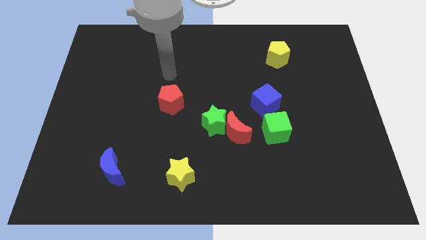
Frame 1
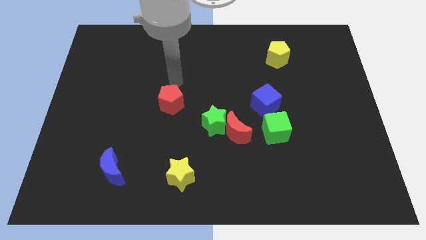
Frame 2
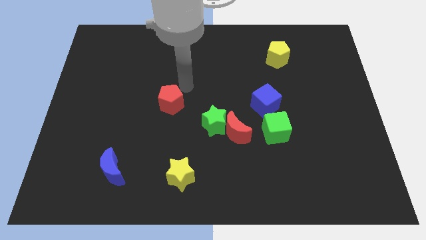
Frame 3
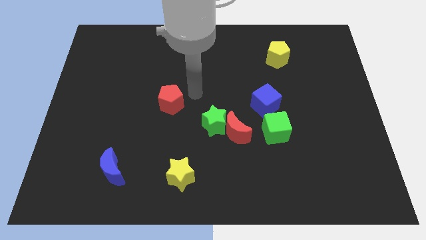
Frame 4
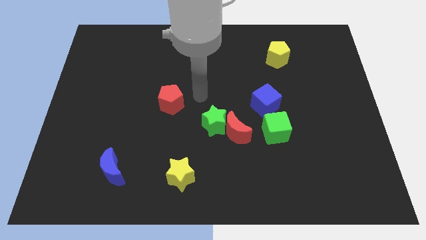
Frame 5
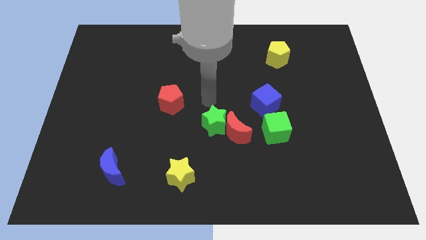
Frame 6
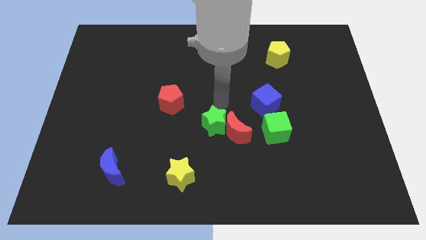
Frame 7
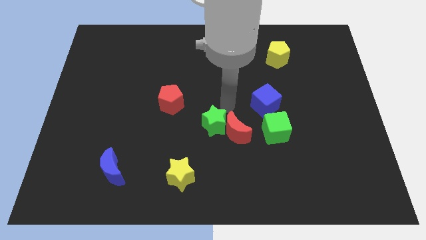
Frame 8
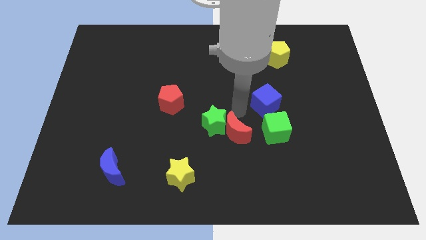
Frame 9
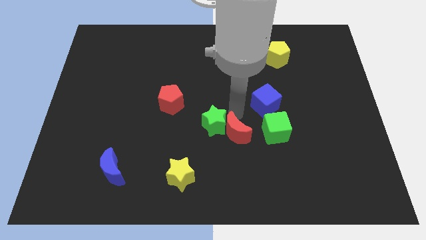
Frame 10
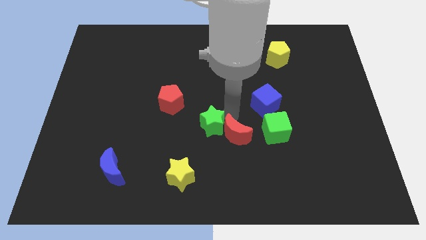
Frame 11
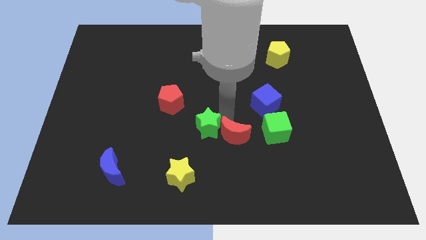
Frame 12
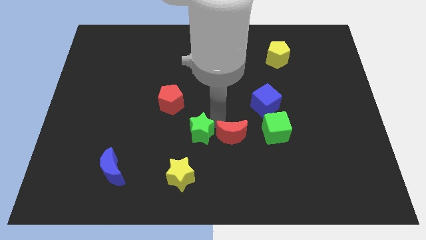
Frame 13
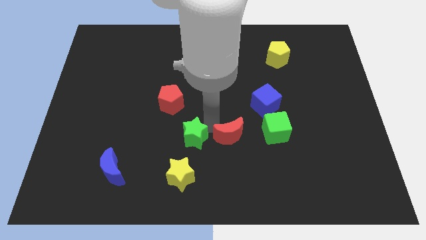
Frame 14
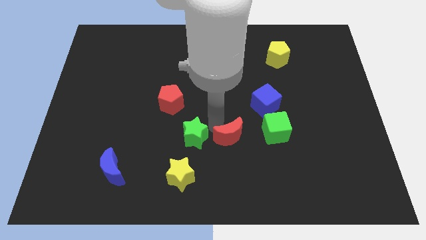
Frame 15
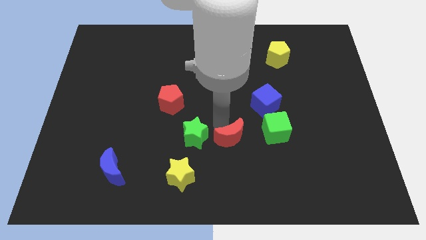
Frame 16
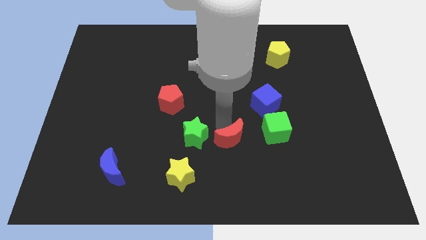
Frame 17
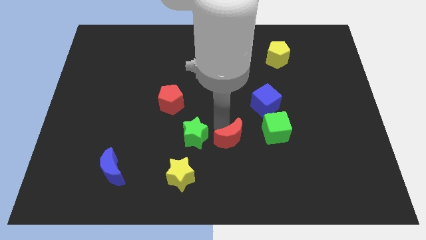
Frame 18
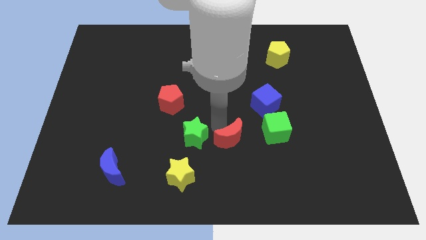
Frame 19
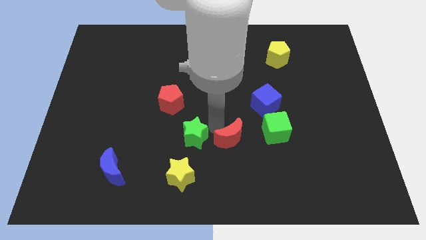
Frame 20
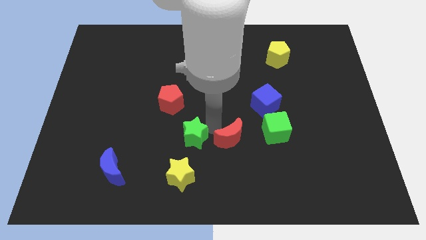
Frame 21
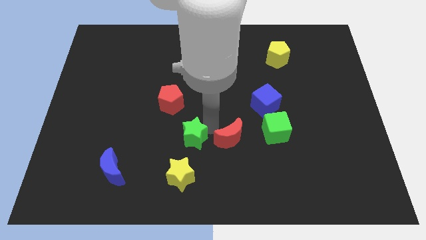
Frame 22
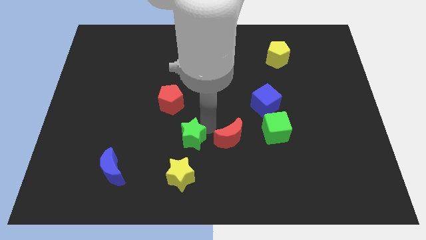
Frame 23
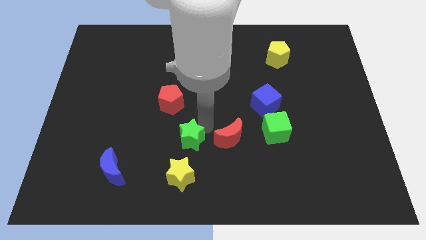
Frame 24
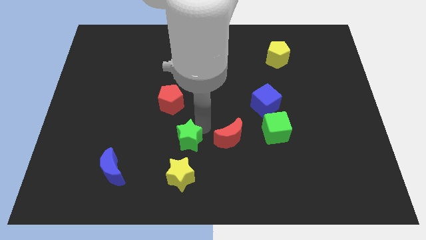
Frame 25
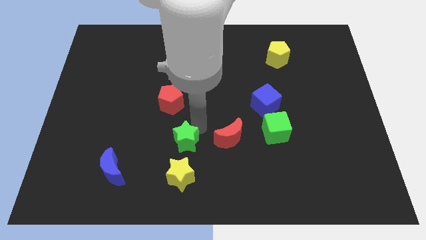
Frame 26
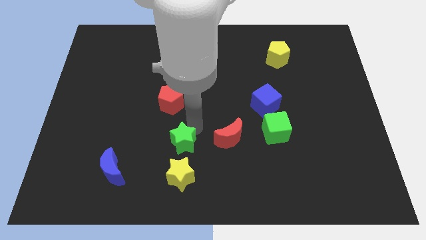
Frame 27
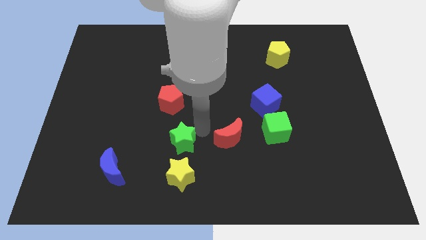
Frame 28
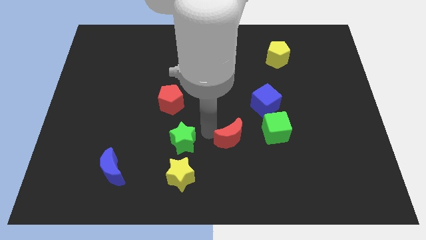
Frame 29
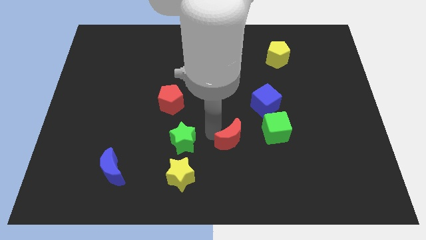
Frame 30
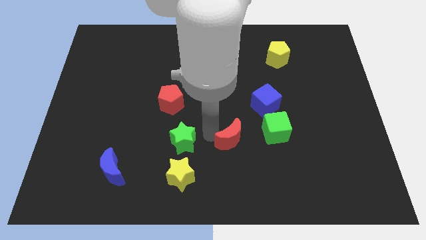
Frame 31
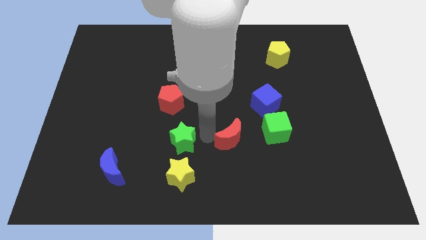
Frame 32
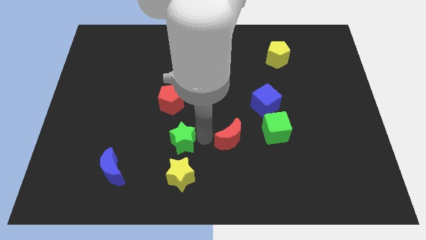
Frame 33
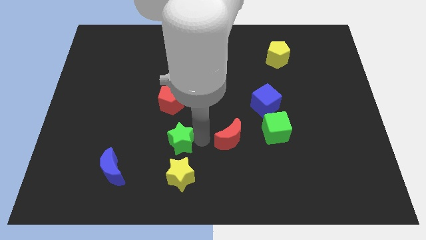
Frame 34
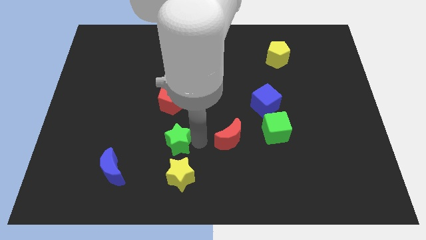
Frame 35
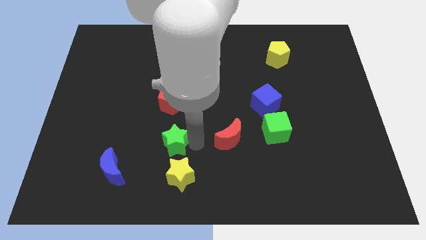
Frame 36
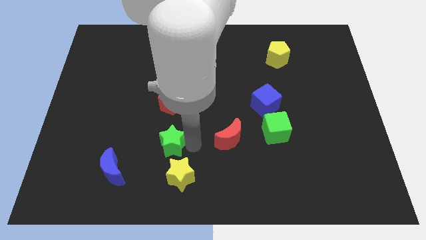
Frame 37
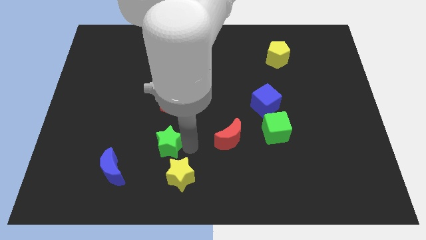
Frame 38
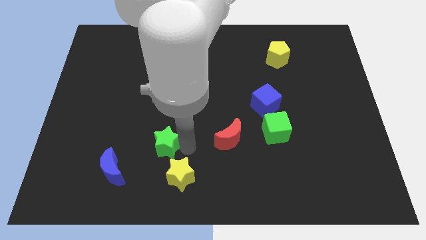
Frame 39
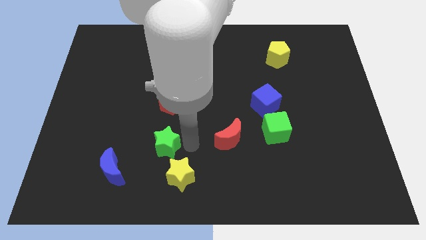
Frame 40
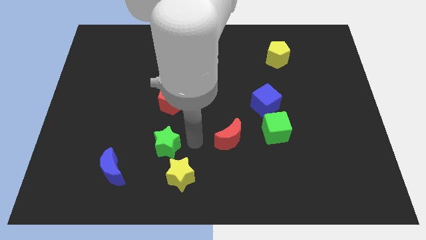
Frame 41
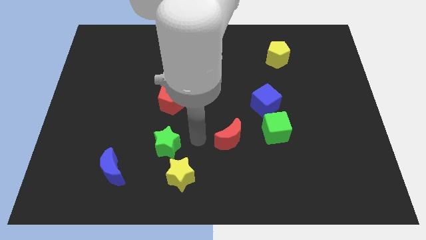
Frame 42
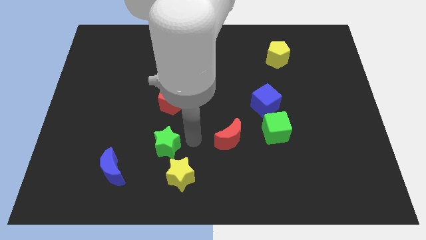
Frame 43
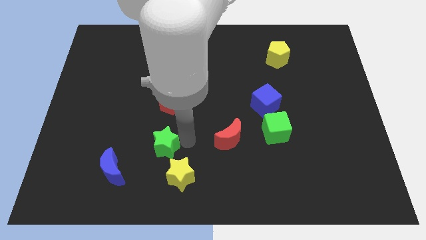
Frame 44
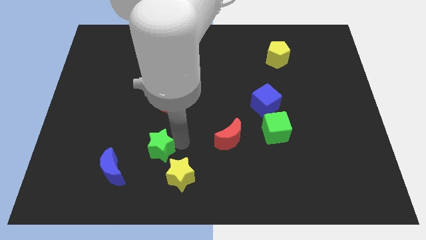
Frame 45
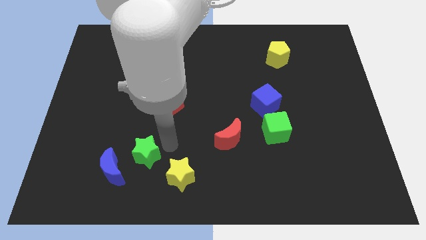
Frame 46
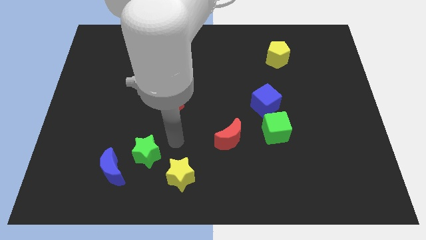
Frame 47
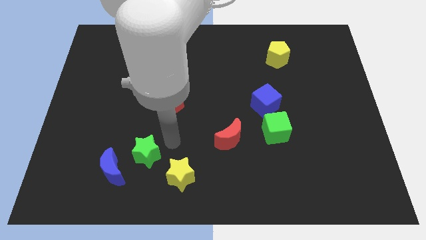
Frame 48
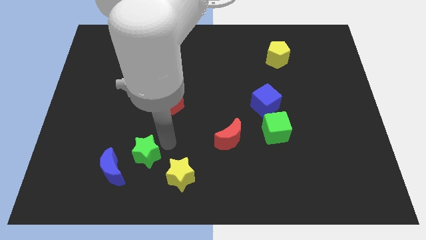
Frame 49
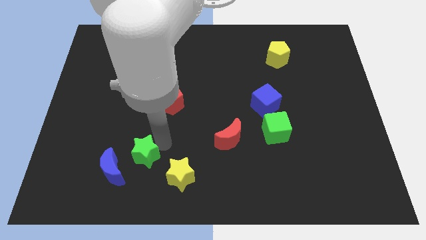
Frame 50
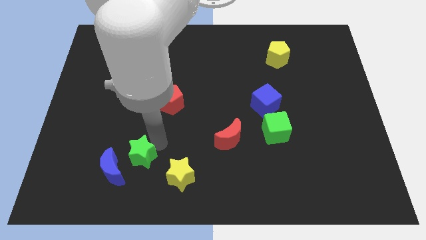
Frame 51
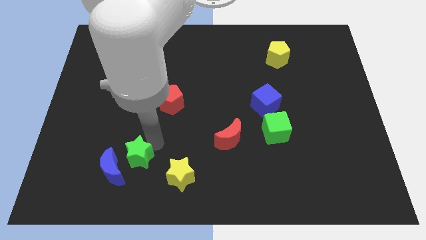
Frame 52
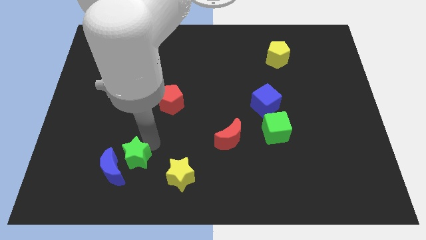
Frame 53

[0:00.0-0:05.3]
push the green star to the blue moon

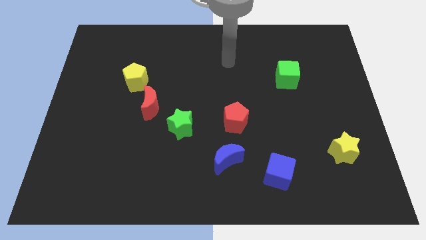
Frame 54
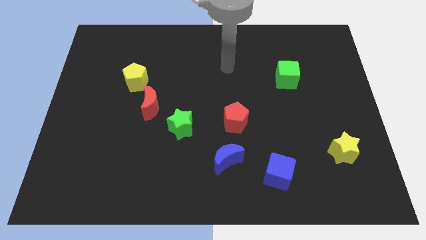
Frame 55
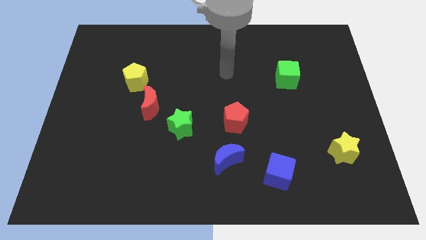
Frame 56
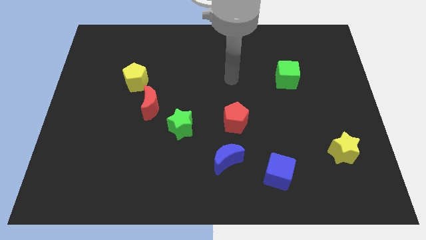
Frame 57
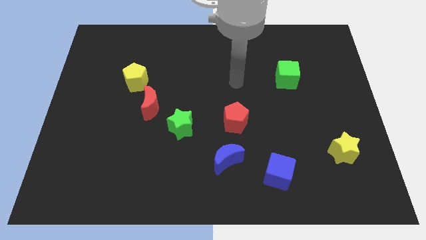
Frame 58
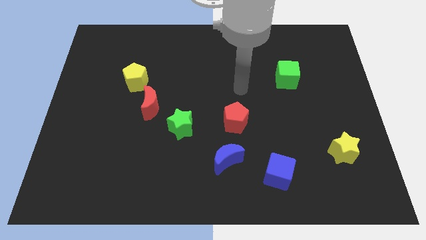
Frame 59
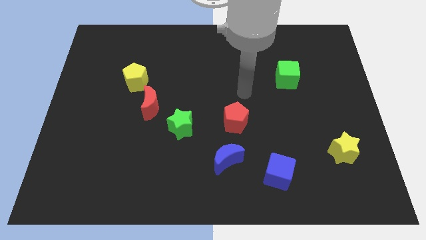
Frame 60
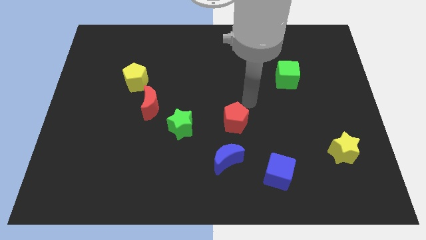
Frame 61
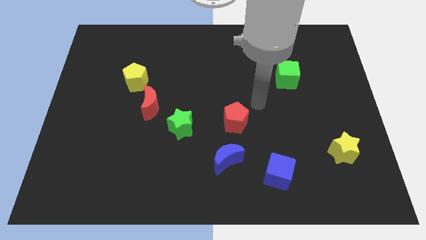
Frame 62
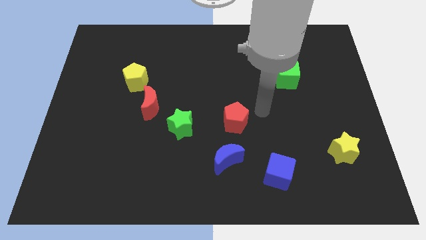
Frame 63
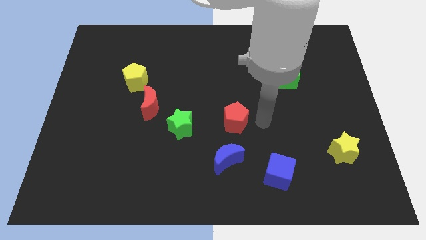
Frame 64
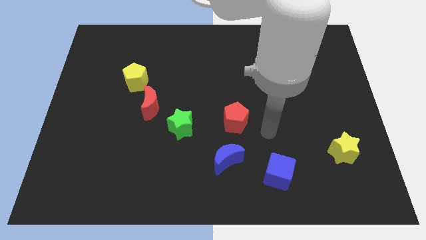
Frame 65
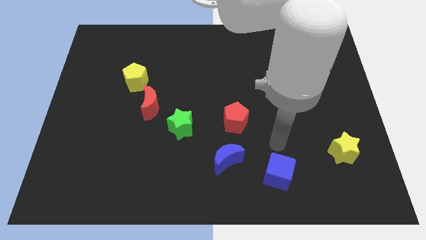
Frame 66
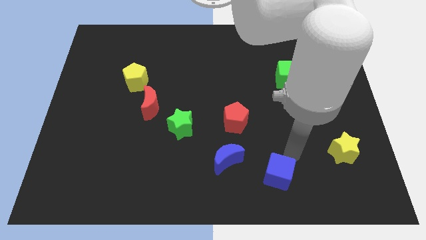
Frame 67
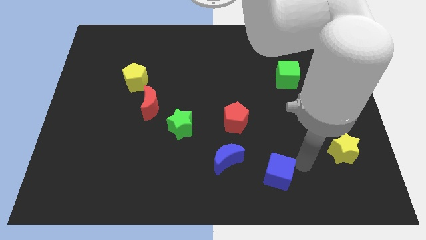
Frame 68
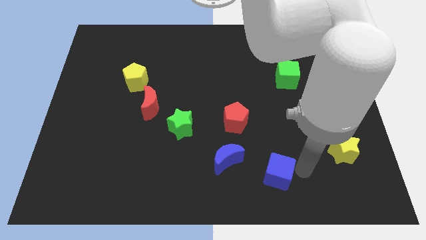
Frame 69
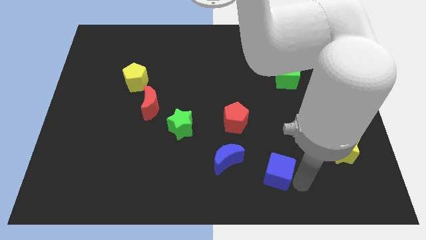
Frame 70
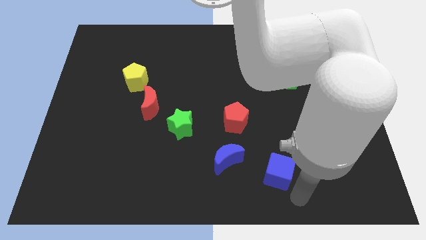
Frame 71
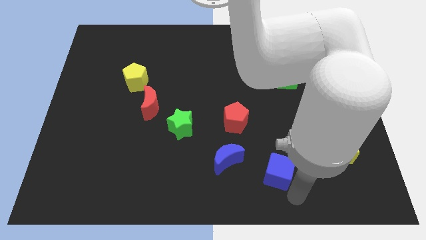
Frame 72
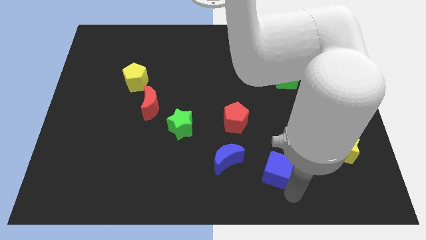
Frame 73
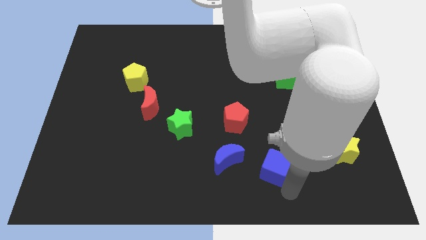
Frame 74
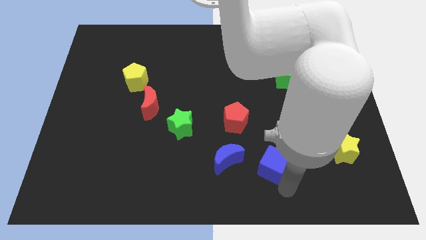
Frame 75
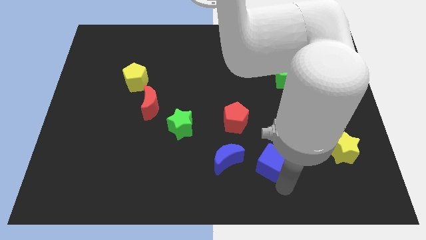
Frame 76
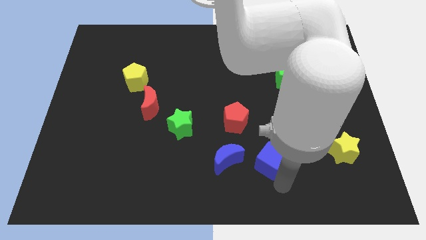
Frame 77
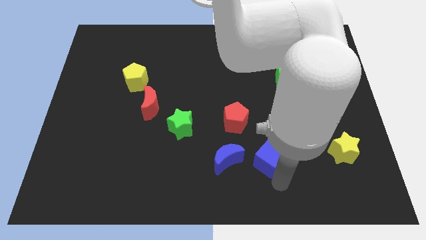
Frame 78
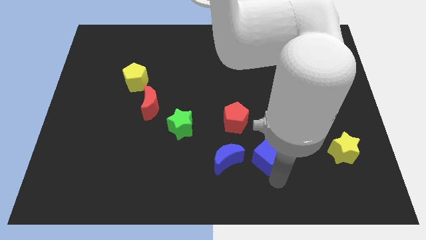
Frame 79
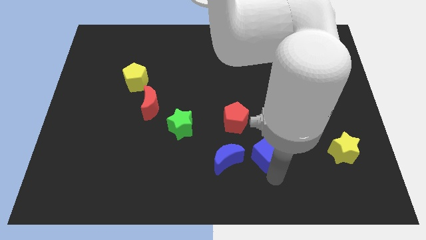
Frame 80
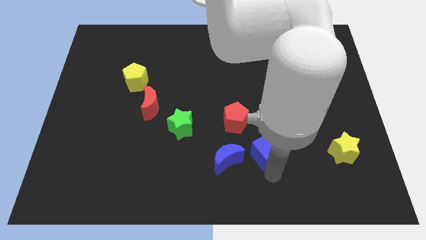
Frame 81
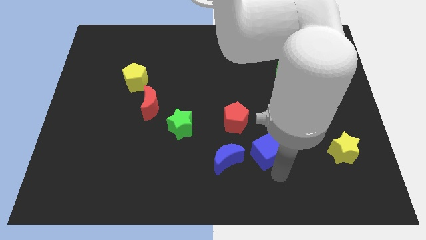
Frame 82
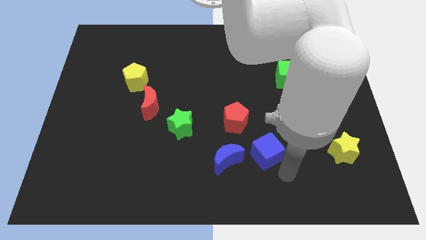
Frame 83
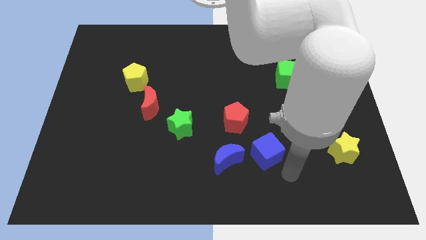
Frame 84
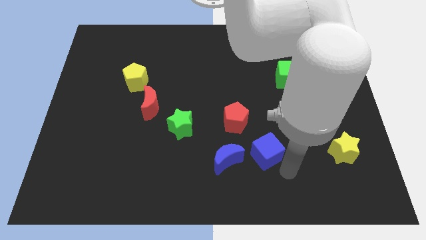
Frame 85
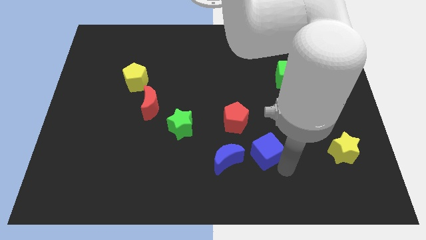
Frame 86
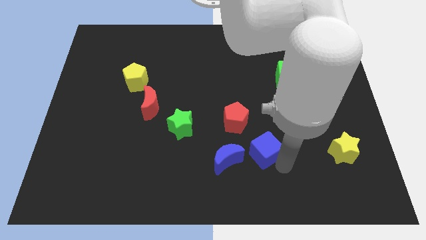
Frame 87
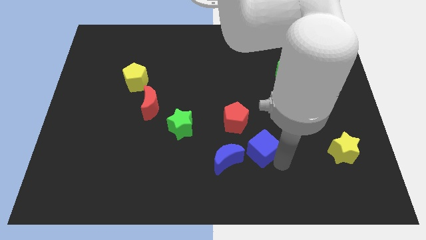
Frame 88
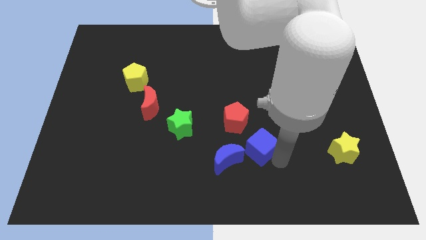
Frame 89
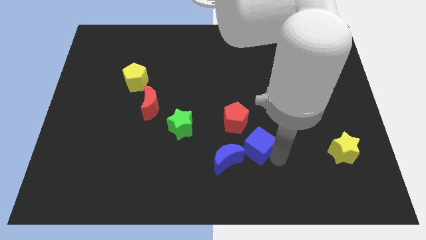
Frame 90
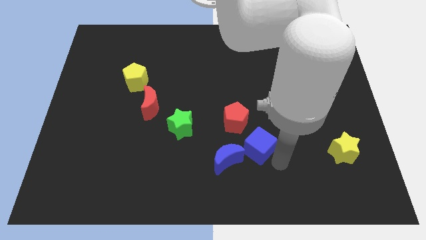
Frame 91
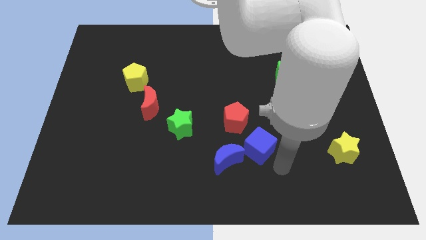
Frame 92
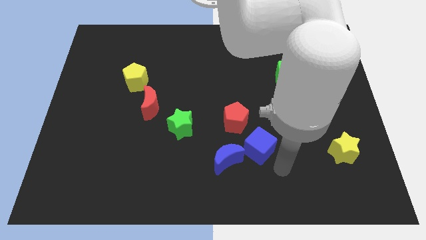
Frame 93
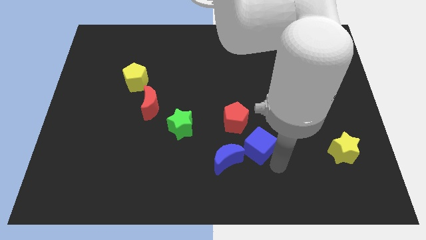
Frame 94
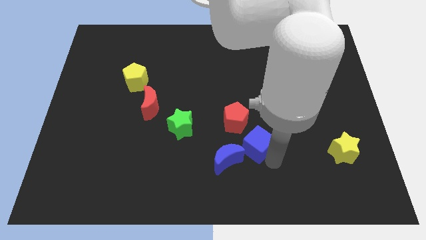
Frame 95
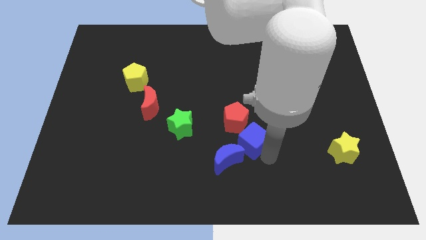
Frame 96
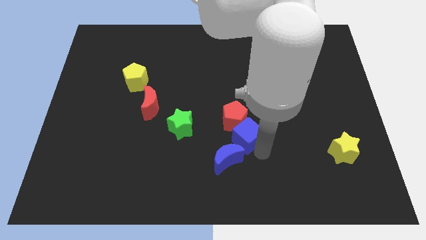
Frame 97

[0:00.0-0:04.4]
move the blue cube next to the red pentagon
